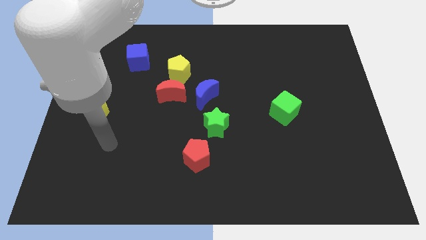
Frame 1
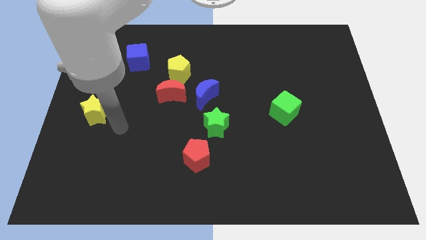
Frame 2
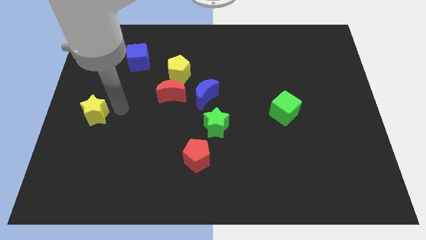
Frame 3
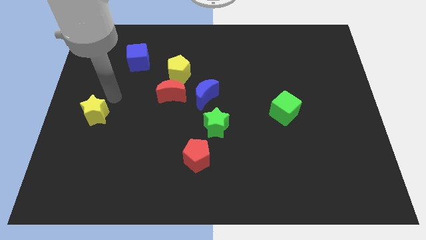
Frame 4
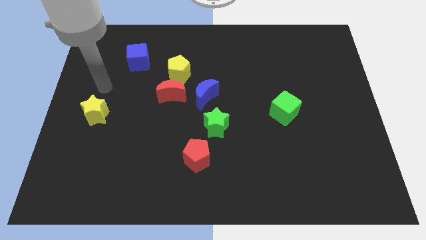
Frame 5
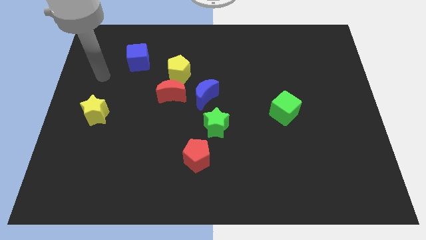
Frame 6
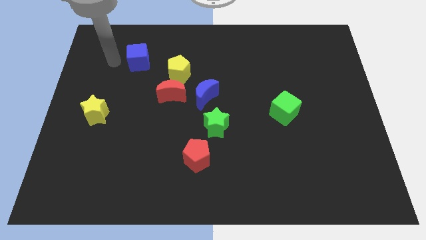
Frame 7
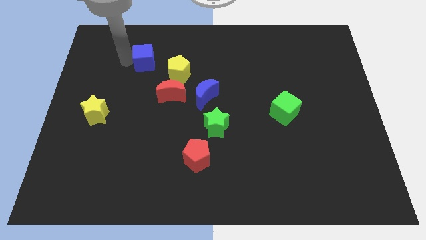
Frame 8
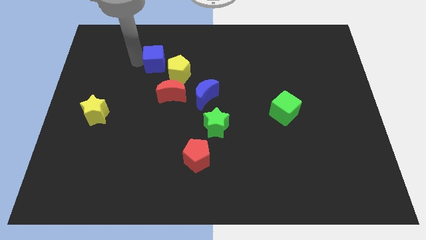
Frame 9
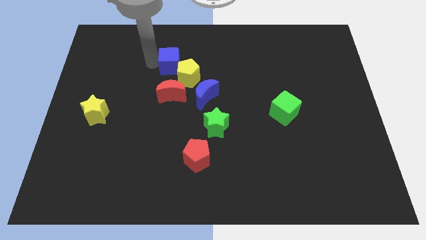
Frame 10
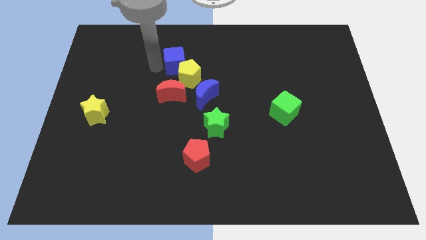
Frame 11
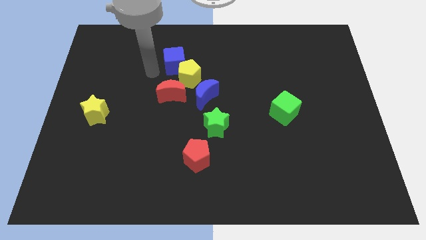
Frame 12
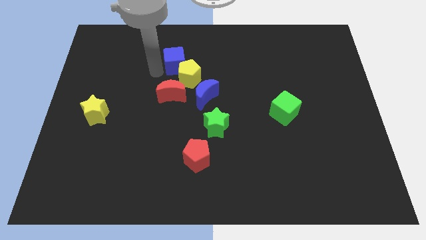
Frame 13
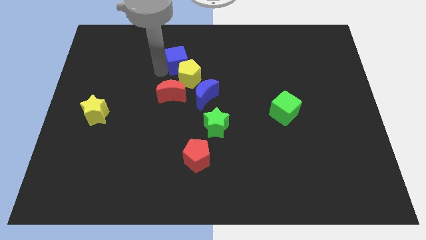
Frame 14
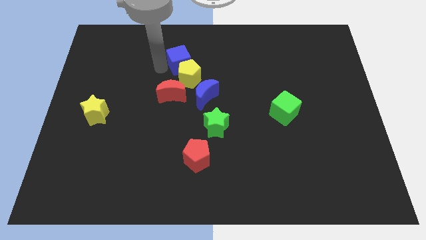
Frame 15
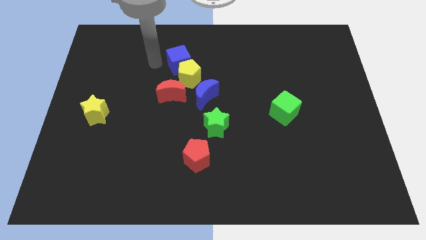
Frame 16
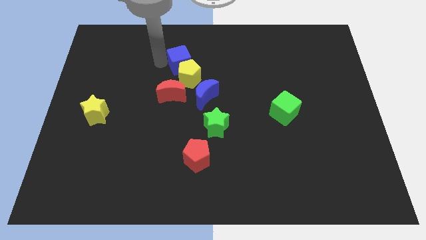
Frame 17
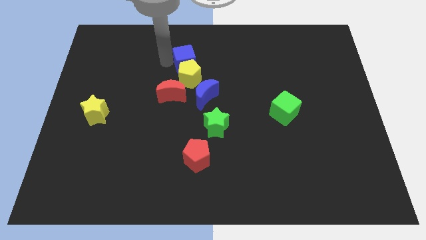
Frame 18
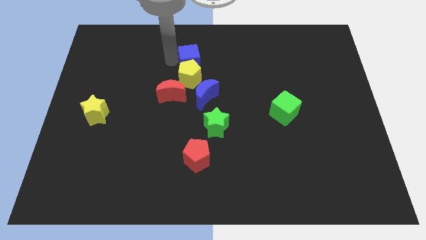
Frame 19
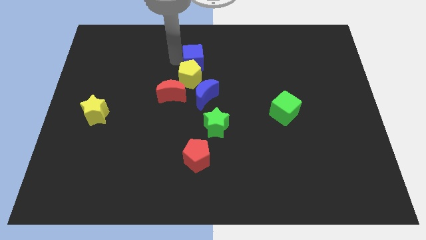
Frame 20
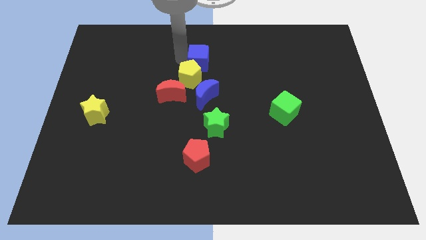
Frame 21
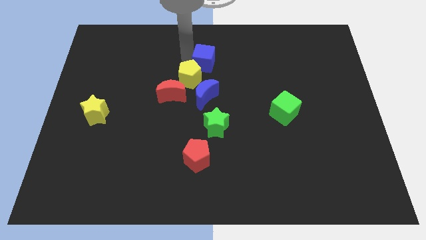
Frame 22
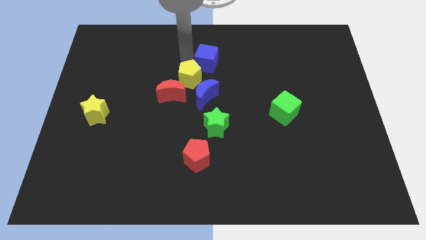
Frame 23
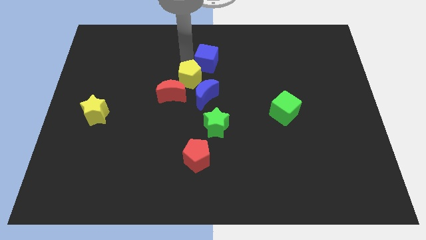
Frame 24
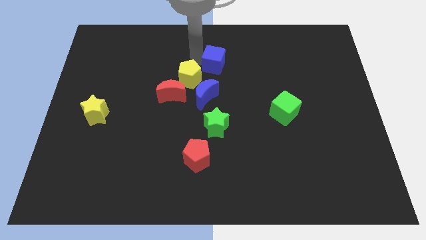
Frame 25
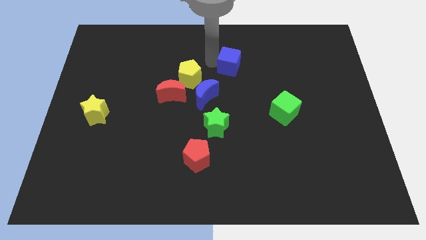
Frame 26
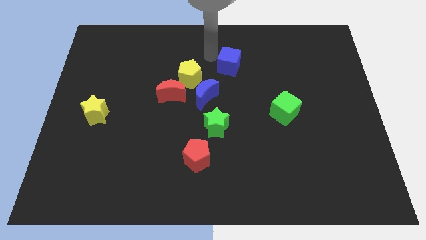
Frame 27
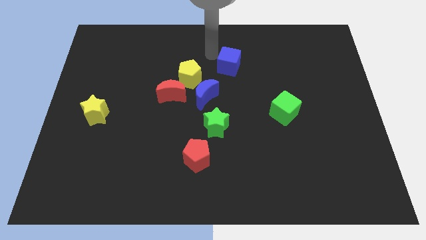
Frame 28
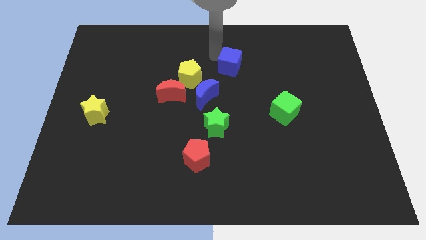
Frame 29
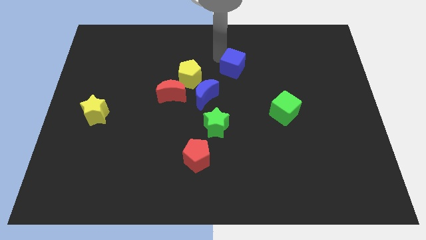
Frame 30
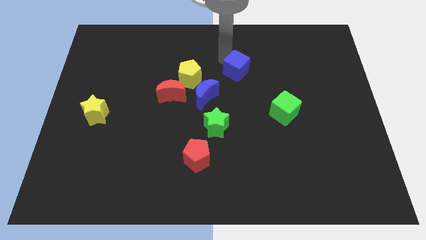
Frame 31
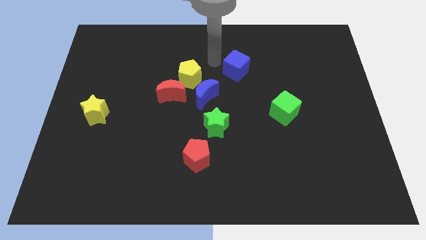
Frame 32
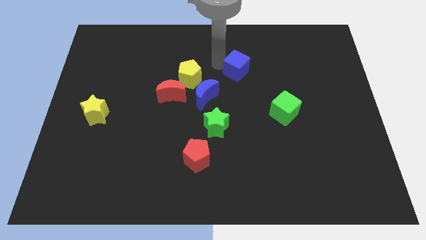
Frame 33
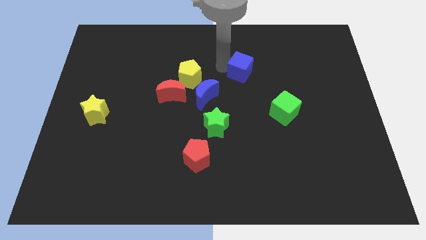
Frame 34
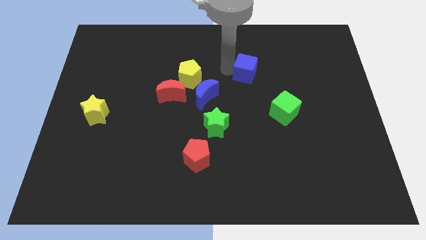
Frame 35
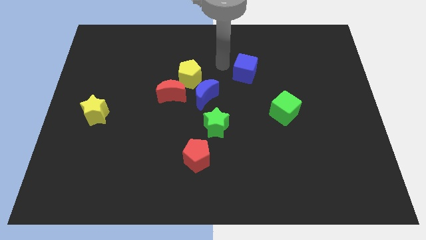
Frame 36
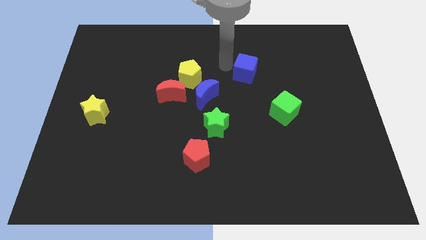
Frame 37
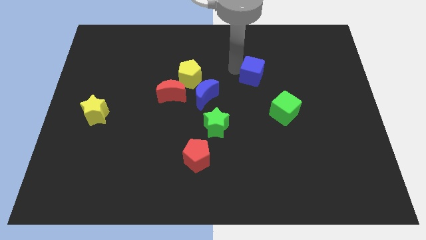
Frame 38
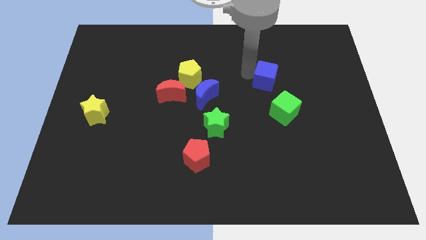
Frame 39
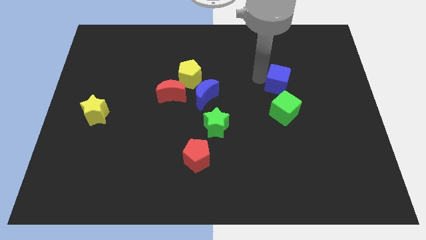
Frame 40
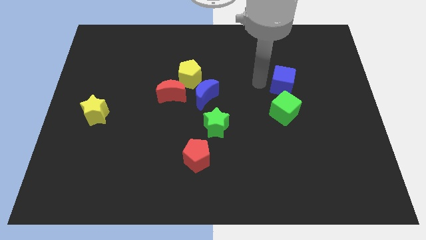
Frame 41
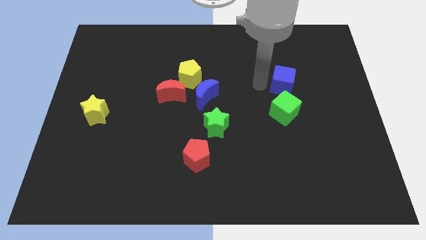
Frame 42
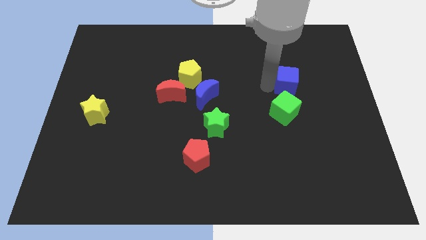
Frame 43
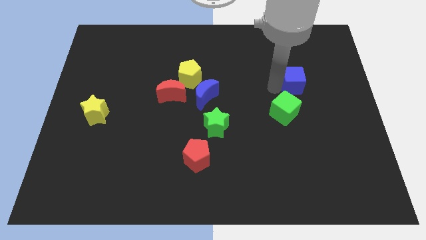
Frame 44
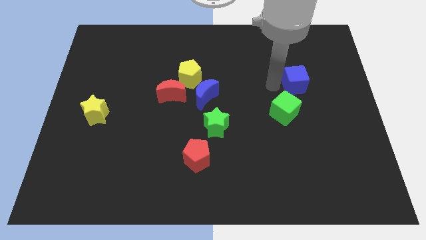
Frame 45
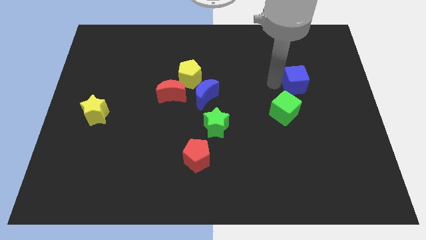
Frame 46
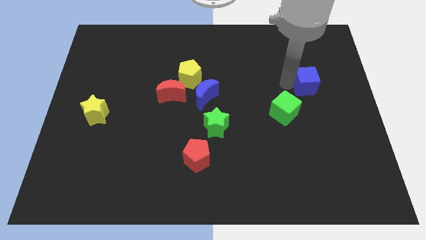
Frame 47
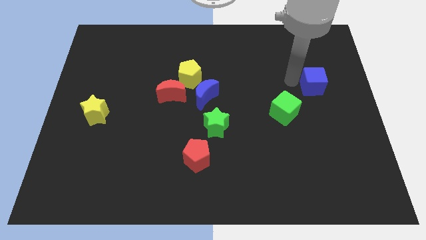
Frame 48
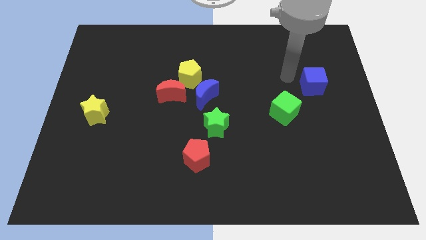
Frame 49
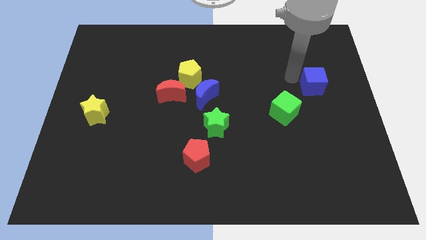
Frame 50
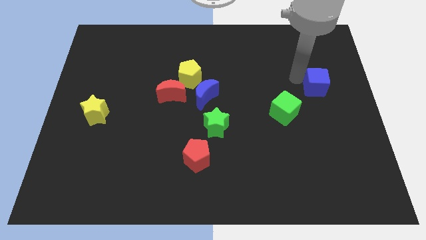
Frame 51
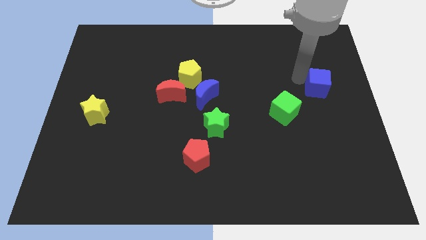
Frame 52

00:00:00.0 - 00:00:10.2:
put the blue cube to the center right
